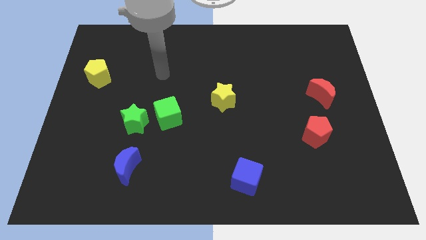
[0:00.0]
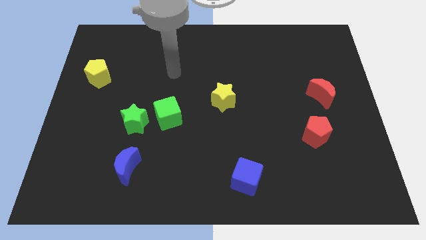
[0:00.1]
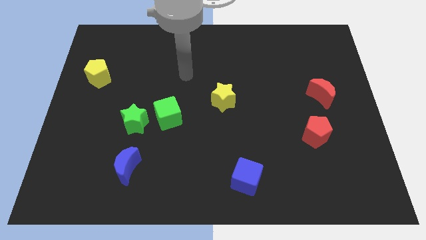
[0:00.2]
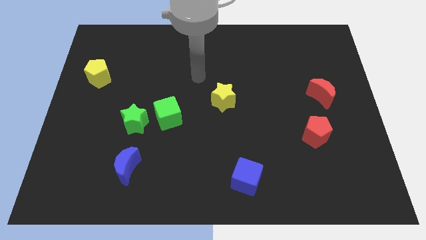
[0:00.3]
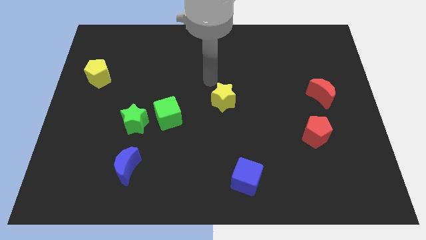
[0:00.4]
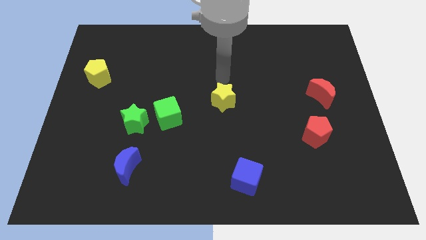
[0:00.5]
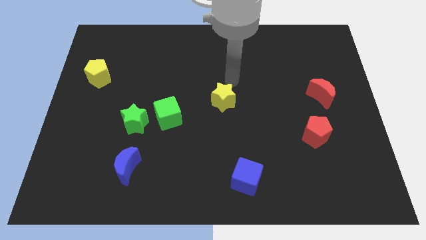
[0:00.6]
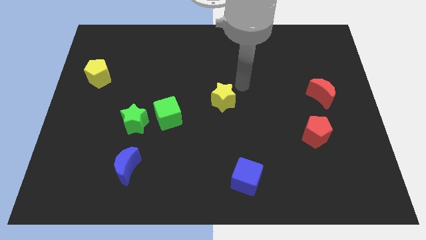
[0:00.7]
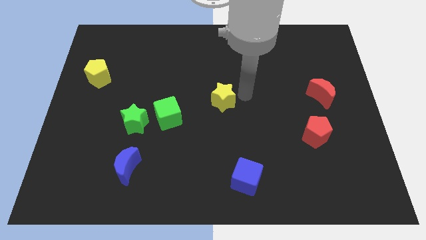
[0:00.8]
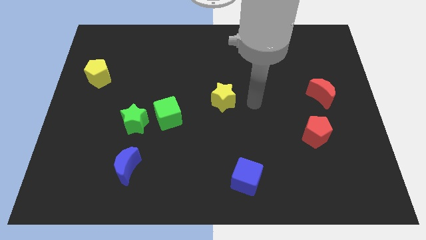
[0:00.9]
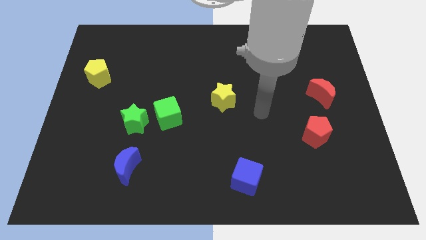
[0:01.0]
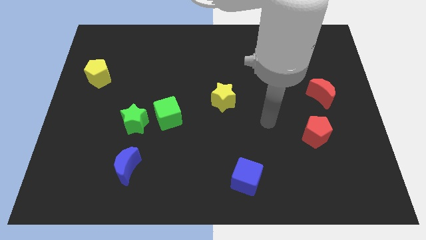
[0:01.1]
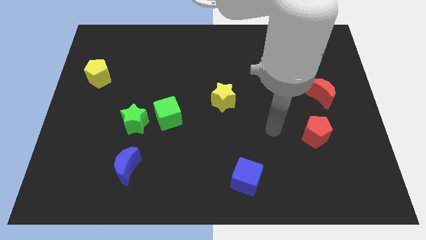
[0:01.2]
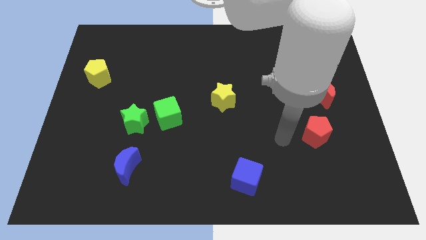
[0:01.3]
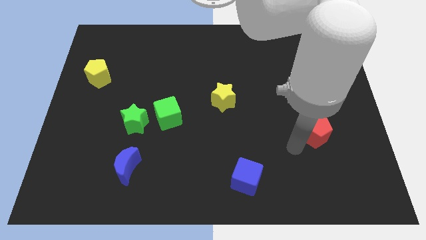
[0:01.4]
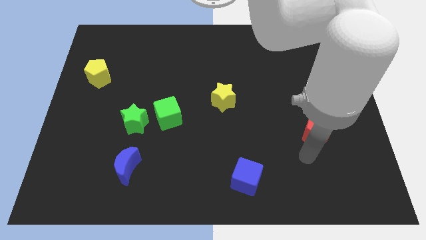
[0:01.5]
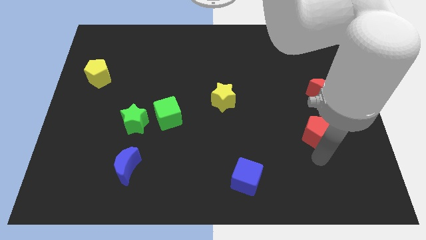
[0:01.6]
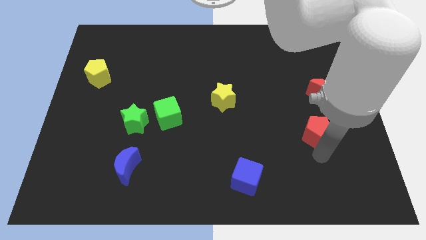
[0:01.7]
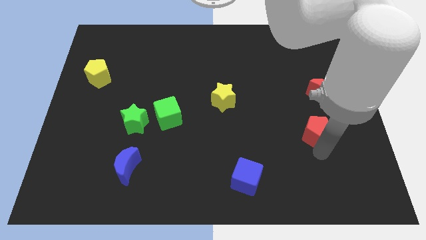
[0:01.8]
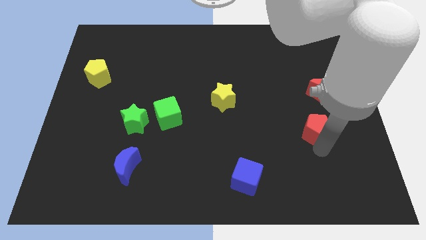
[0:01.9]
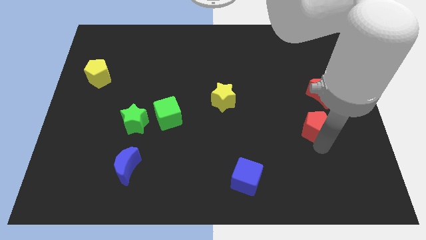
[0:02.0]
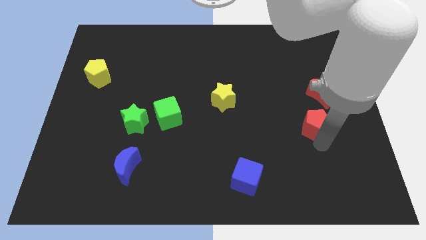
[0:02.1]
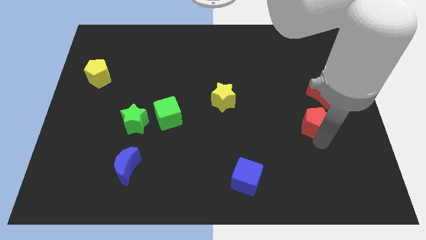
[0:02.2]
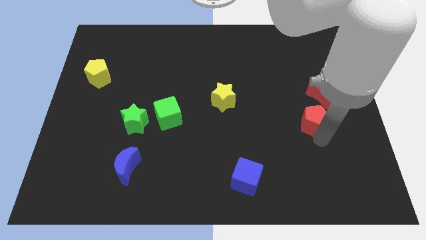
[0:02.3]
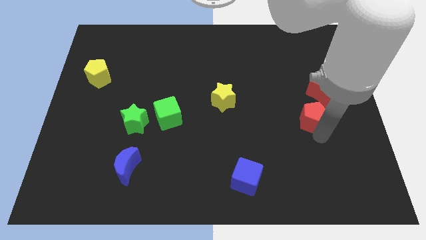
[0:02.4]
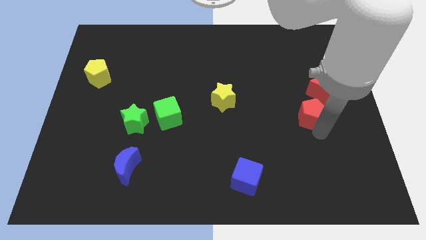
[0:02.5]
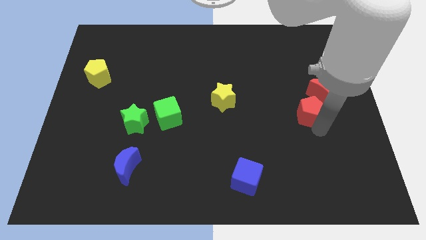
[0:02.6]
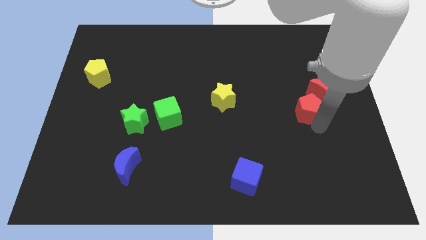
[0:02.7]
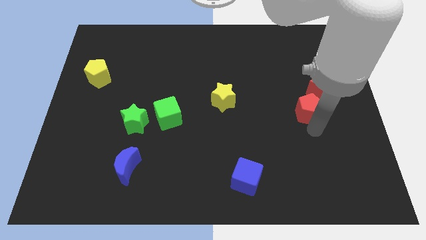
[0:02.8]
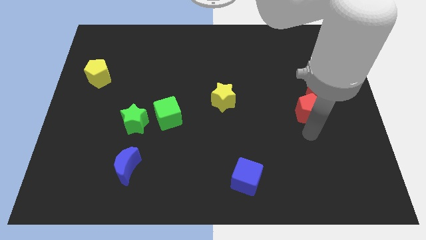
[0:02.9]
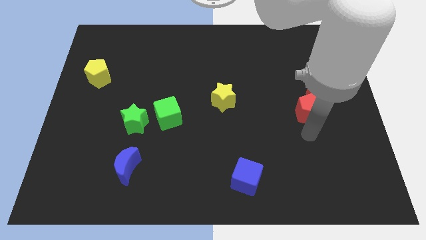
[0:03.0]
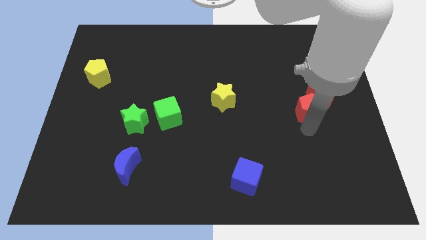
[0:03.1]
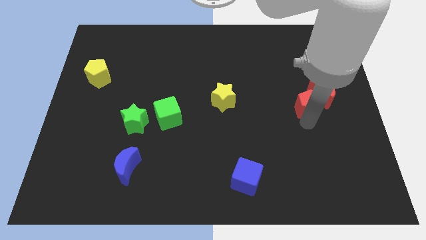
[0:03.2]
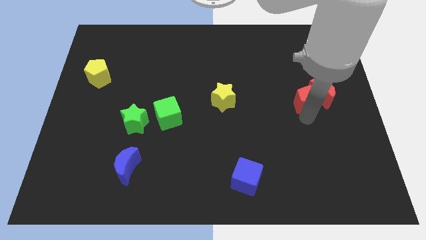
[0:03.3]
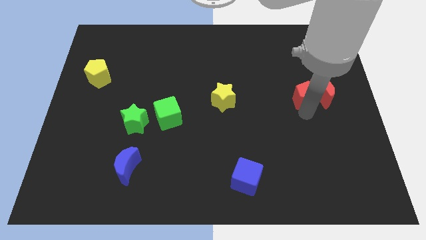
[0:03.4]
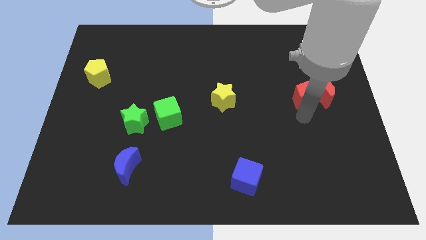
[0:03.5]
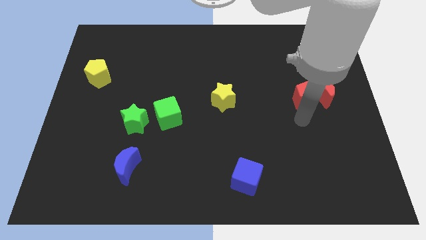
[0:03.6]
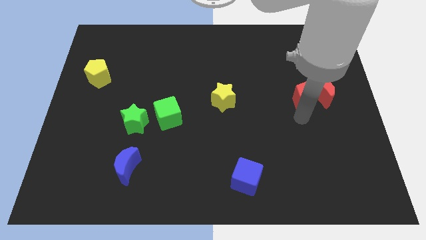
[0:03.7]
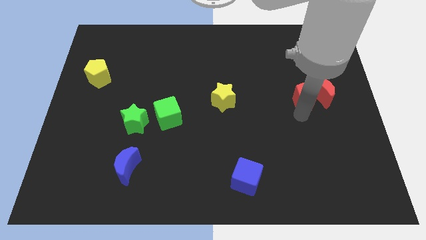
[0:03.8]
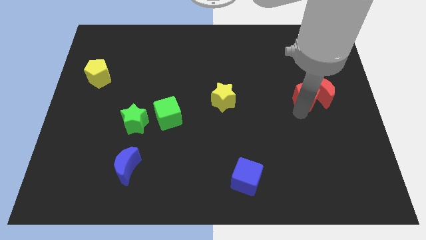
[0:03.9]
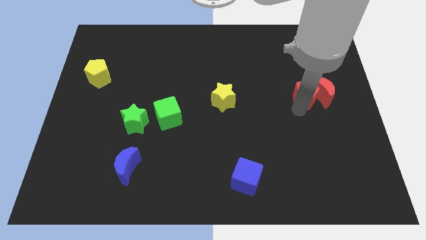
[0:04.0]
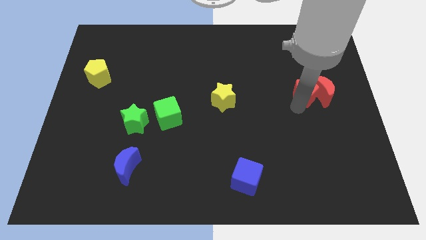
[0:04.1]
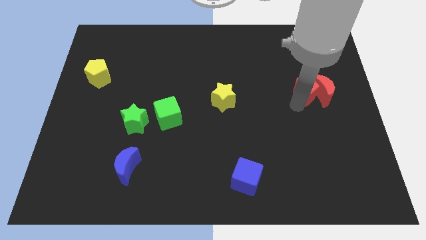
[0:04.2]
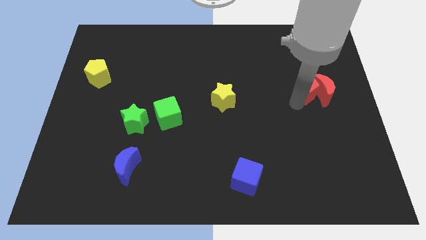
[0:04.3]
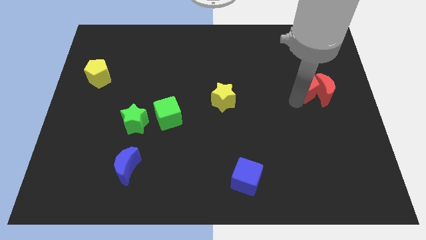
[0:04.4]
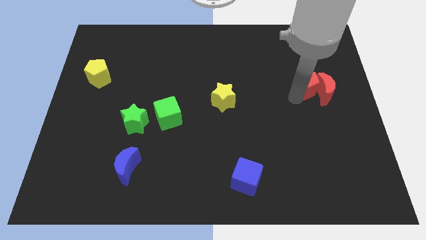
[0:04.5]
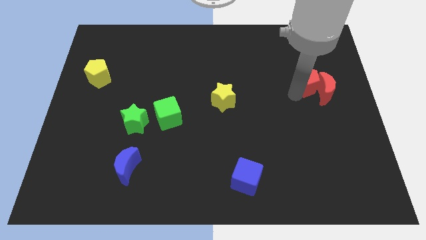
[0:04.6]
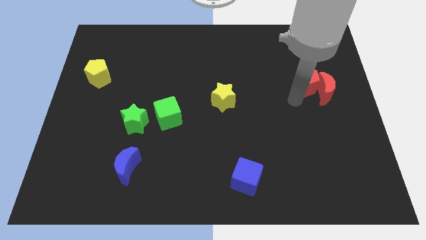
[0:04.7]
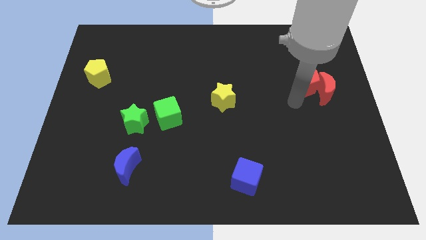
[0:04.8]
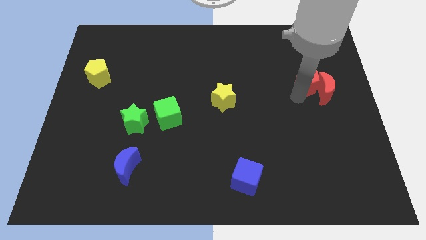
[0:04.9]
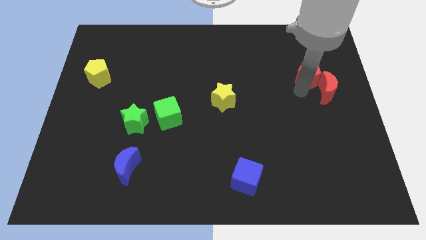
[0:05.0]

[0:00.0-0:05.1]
move the red pentagon to the top of the red moon

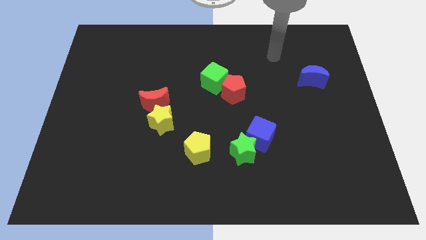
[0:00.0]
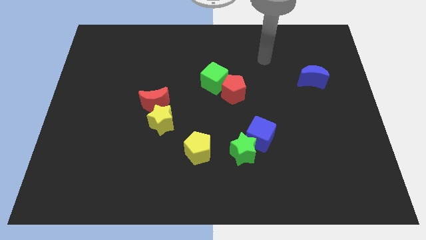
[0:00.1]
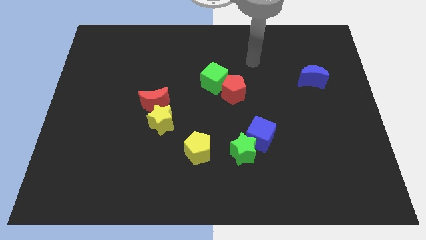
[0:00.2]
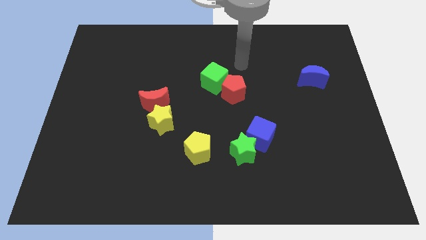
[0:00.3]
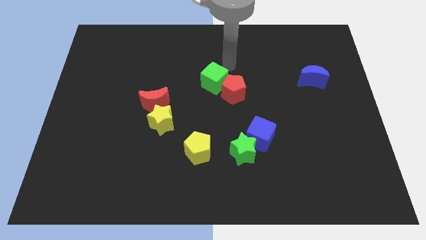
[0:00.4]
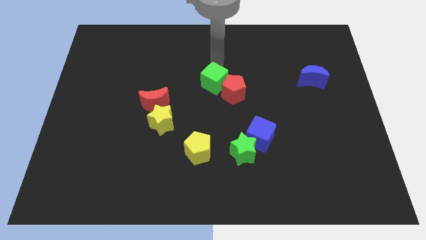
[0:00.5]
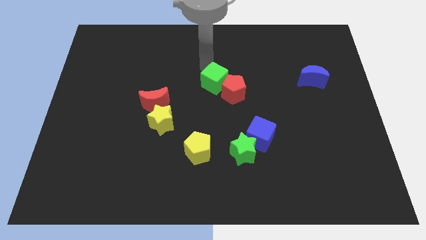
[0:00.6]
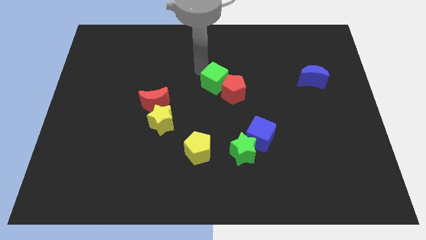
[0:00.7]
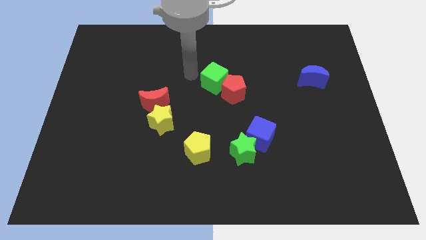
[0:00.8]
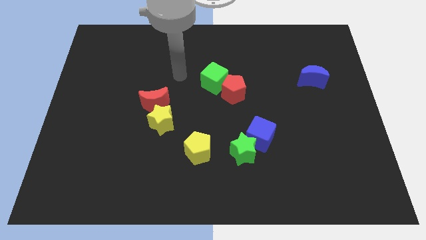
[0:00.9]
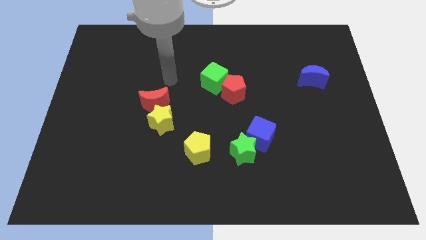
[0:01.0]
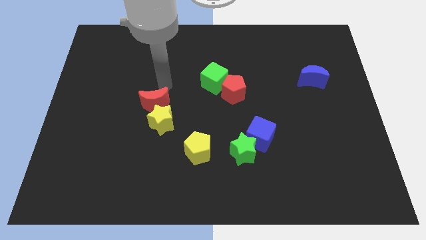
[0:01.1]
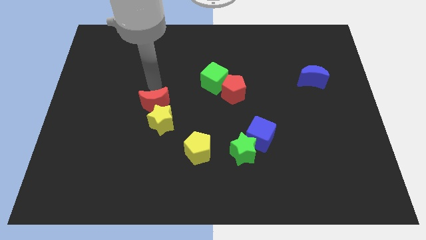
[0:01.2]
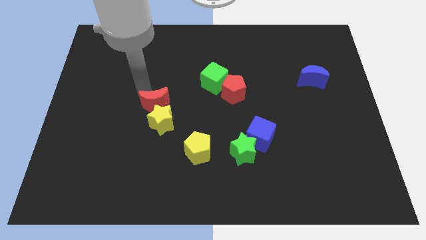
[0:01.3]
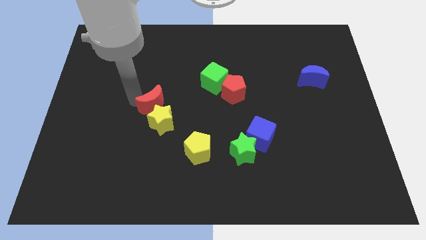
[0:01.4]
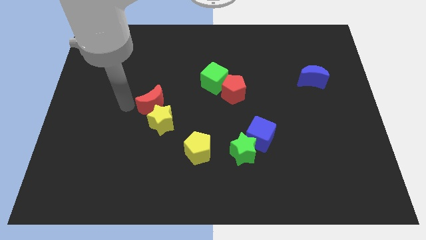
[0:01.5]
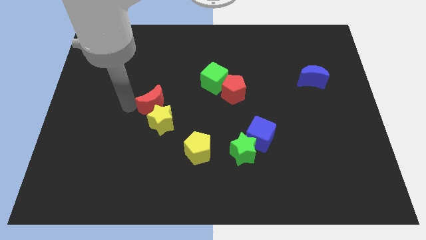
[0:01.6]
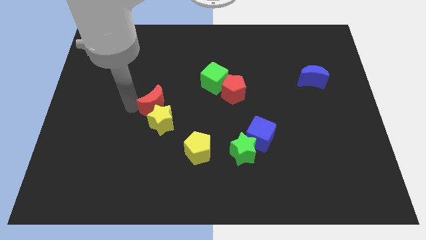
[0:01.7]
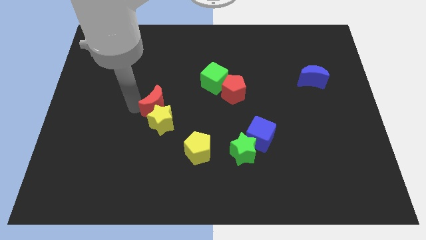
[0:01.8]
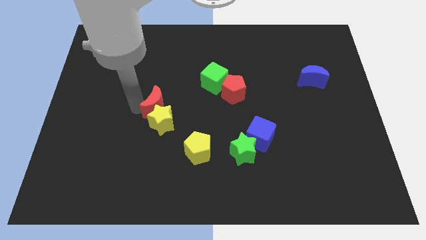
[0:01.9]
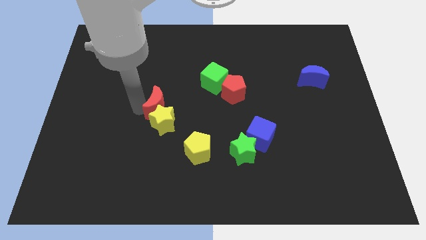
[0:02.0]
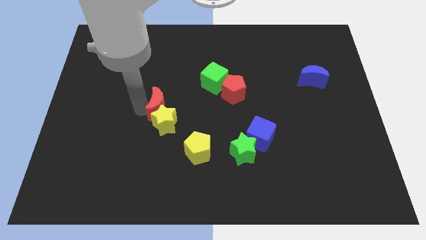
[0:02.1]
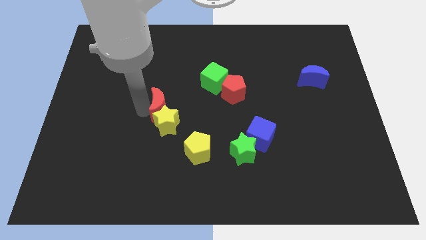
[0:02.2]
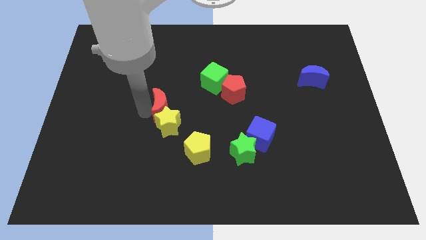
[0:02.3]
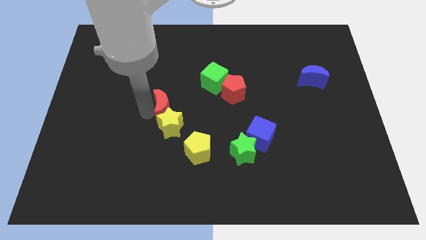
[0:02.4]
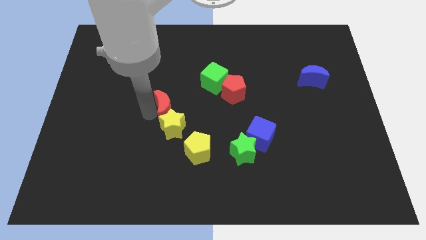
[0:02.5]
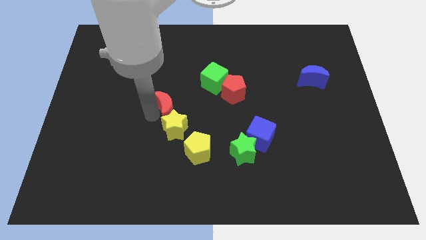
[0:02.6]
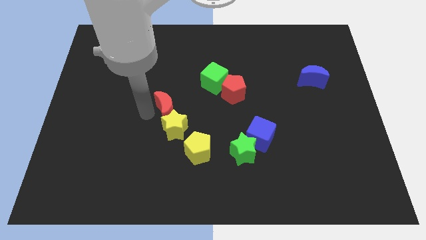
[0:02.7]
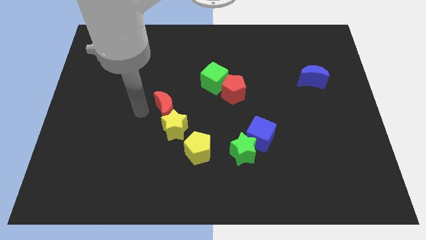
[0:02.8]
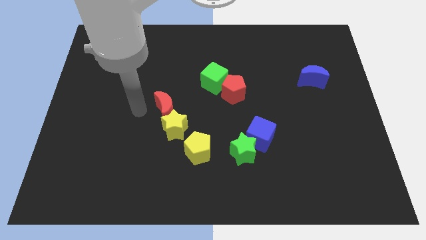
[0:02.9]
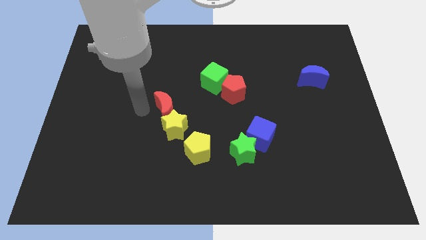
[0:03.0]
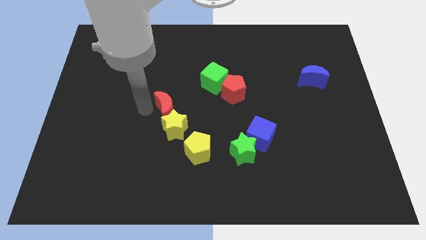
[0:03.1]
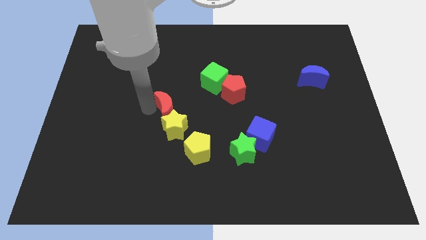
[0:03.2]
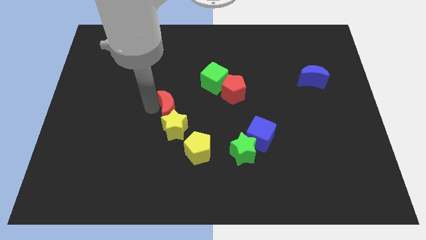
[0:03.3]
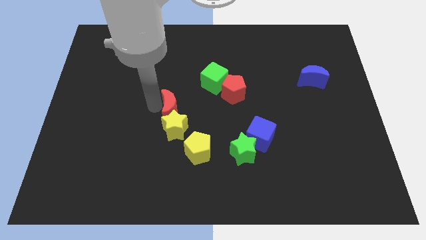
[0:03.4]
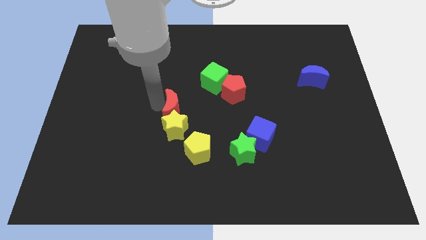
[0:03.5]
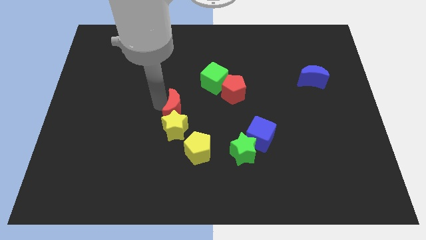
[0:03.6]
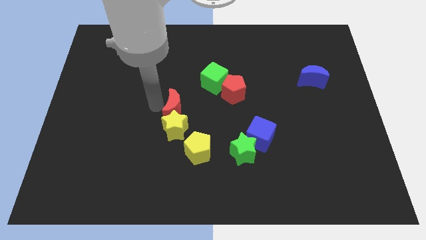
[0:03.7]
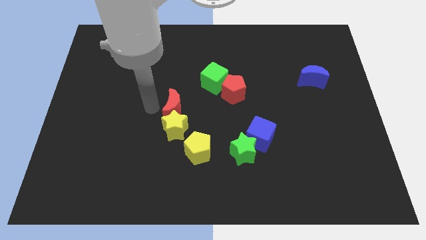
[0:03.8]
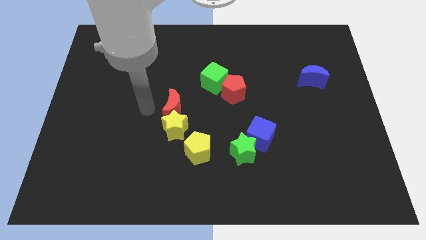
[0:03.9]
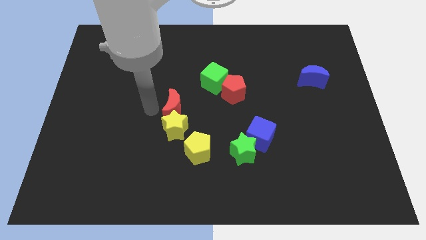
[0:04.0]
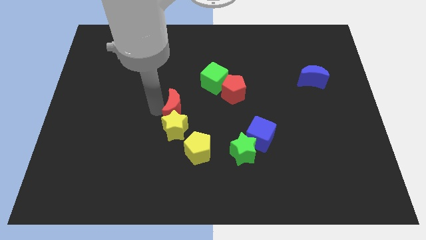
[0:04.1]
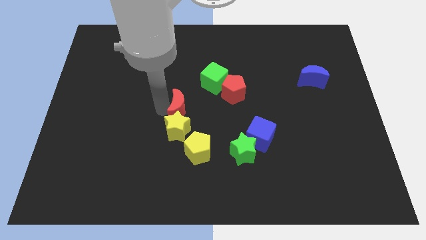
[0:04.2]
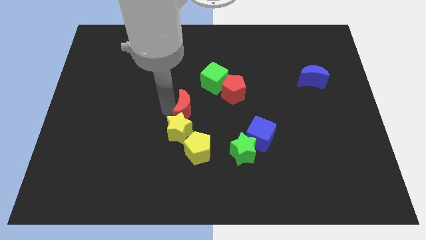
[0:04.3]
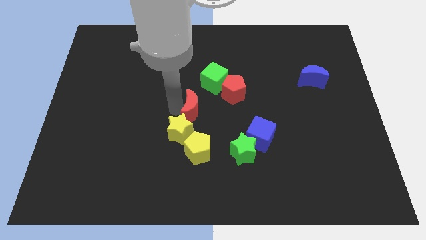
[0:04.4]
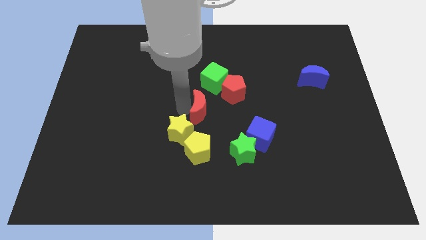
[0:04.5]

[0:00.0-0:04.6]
put the red moon to the bottom side of the green cube
